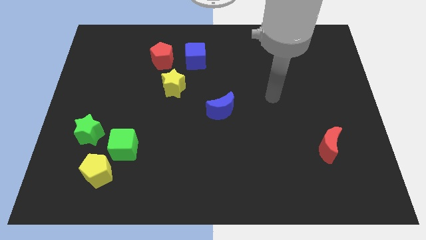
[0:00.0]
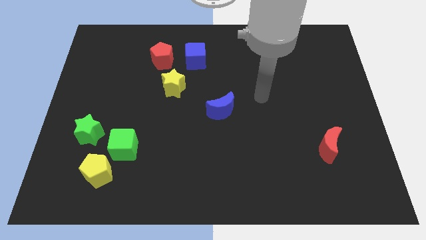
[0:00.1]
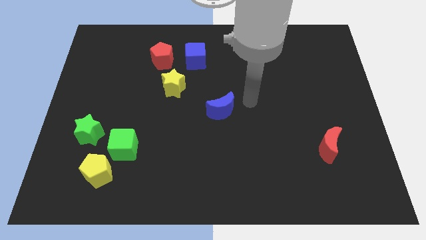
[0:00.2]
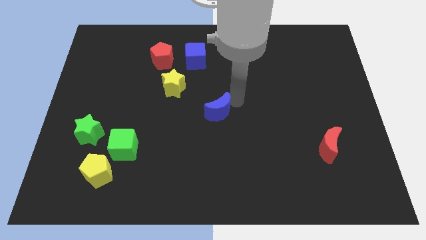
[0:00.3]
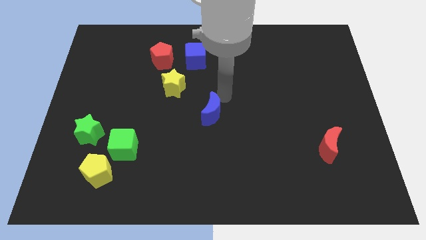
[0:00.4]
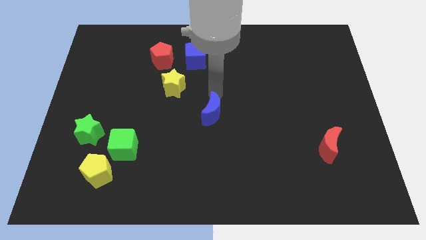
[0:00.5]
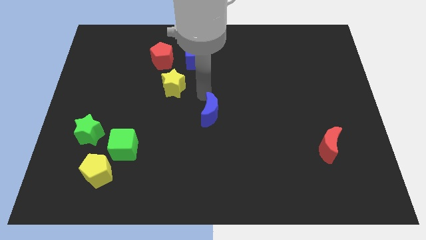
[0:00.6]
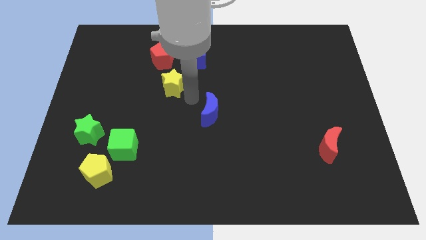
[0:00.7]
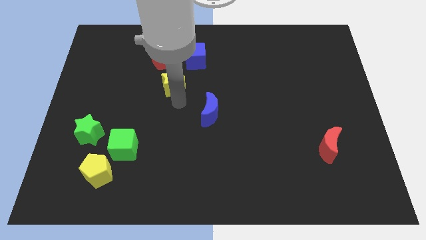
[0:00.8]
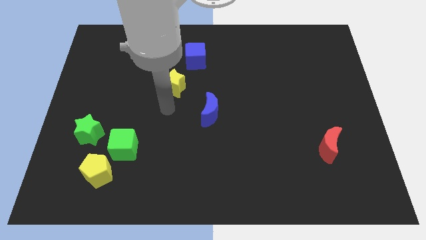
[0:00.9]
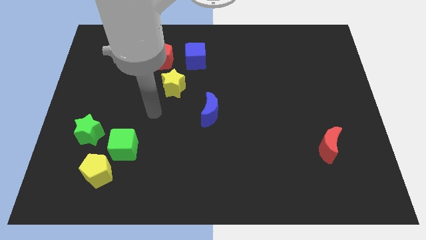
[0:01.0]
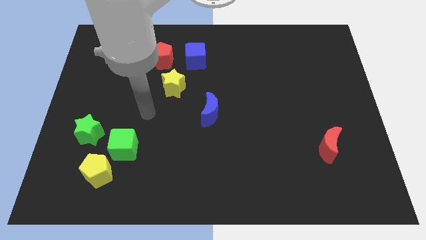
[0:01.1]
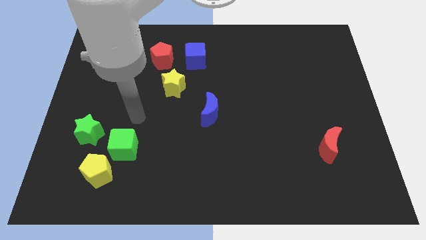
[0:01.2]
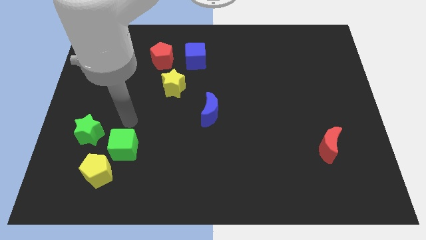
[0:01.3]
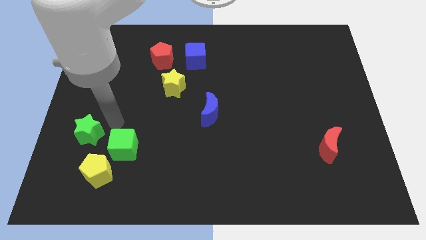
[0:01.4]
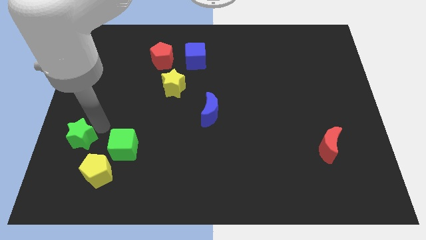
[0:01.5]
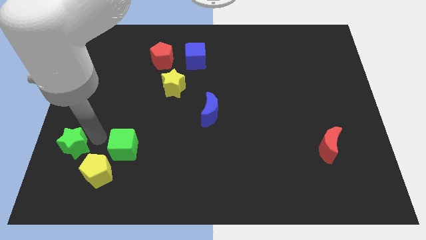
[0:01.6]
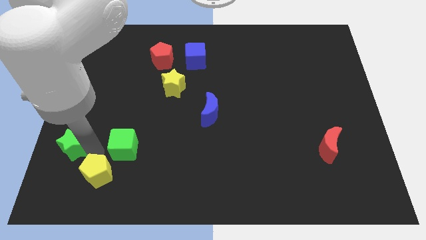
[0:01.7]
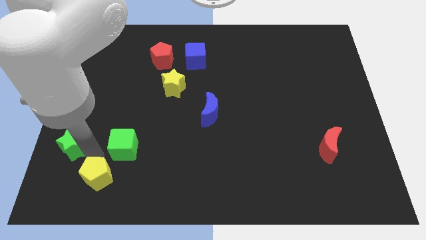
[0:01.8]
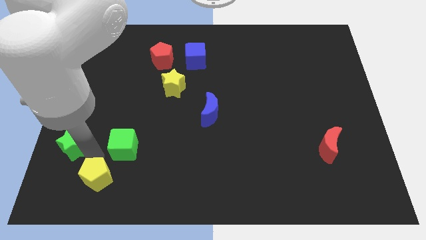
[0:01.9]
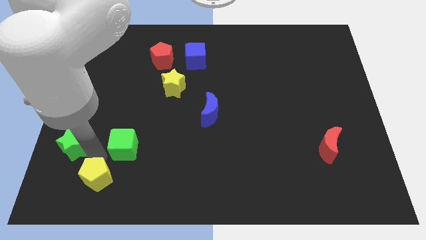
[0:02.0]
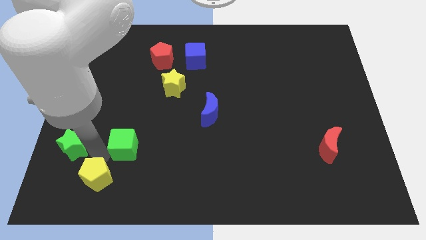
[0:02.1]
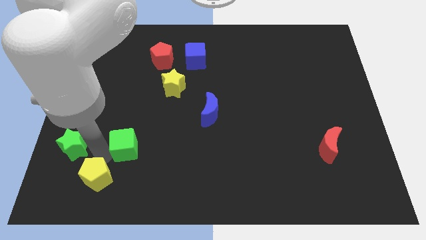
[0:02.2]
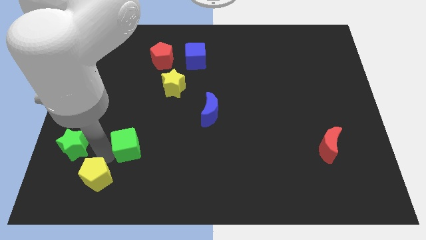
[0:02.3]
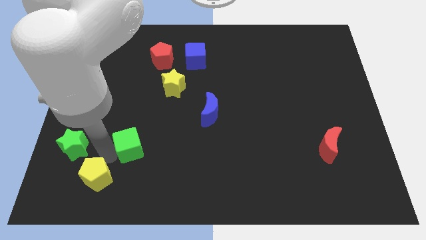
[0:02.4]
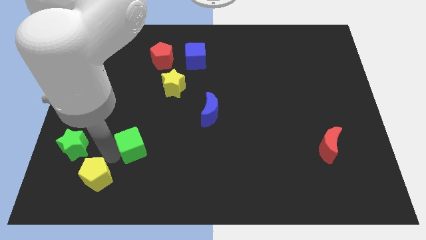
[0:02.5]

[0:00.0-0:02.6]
move the green cube away from the yellow pentagon and green star

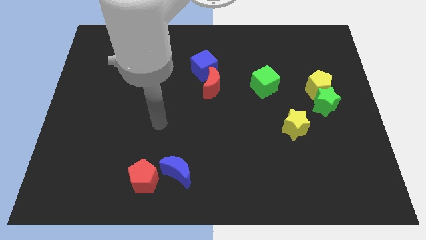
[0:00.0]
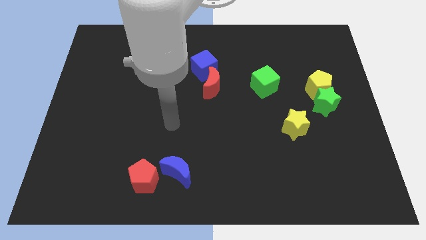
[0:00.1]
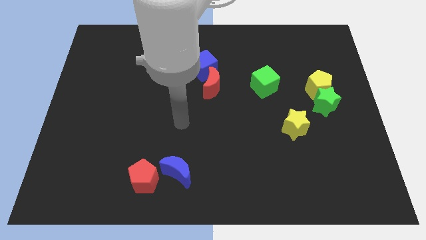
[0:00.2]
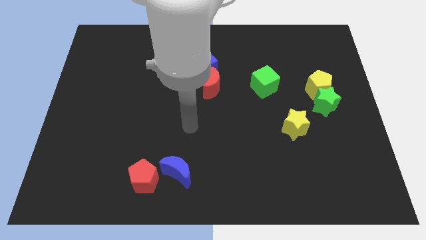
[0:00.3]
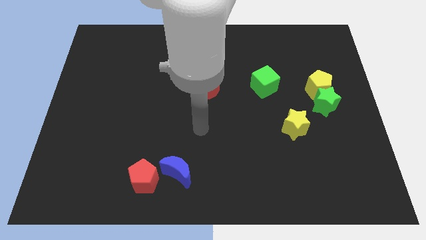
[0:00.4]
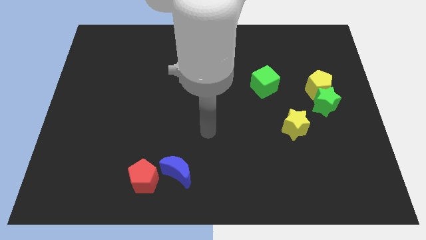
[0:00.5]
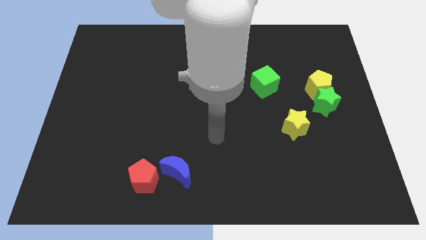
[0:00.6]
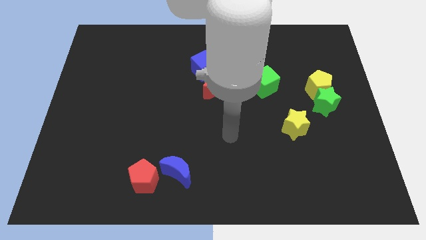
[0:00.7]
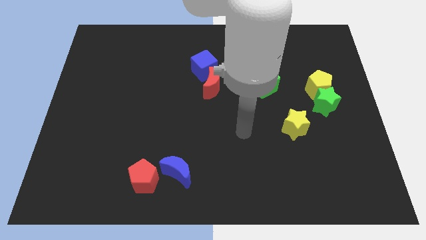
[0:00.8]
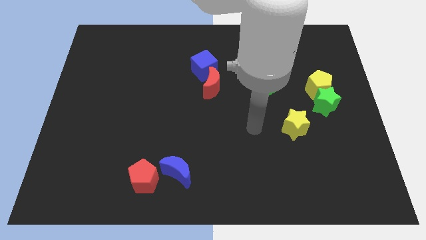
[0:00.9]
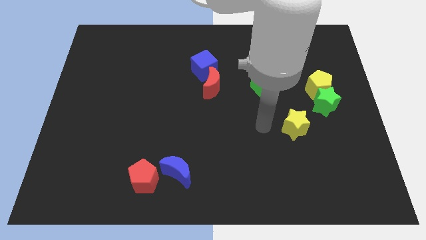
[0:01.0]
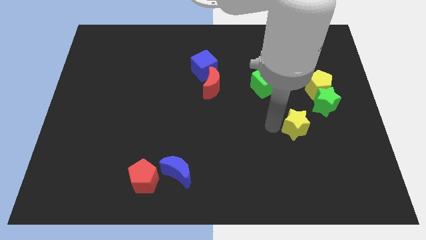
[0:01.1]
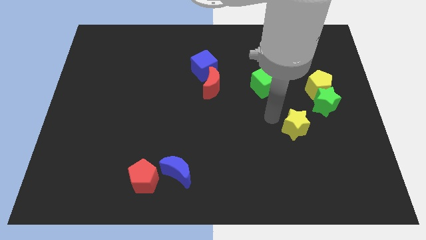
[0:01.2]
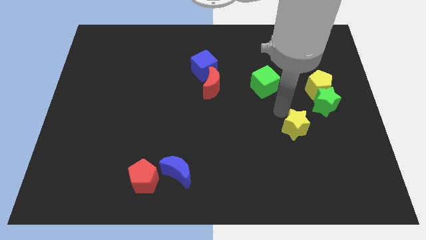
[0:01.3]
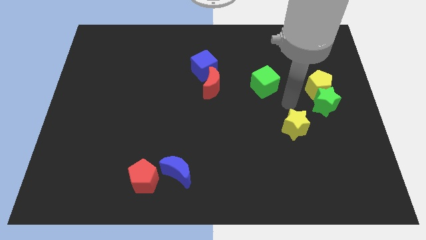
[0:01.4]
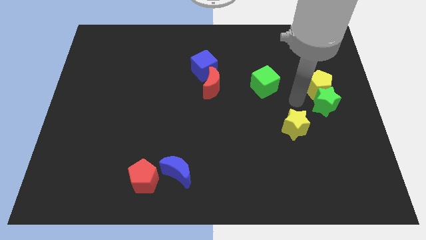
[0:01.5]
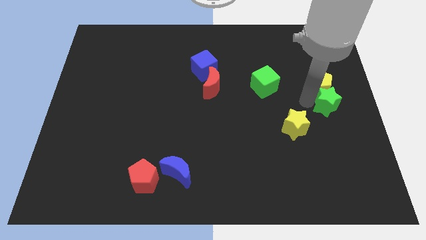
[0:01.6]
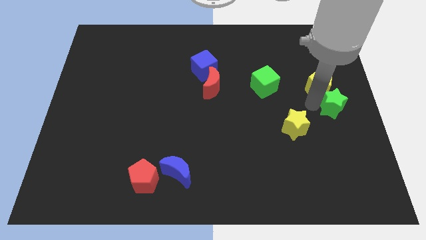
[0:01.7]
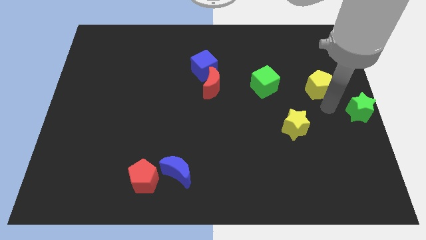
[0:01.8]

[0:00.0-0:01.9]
pull the yellow pentagon apart from the green star

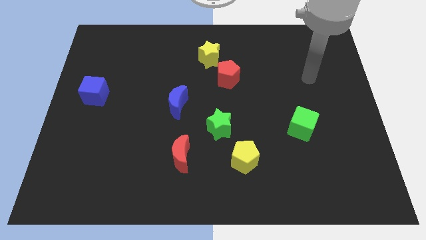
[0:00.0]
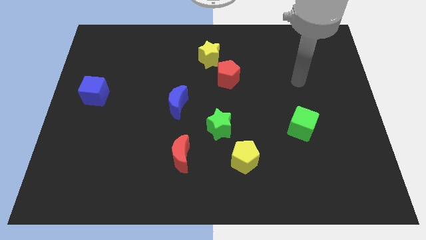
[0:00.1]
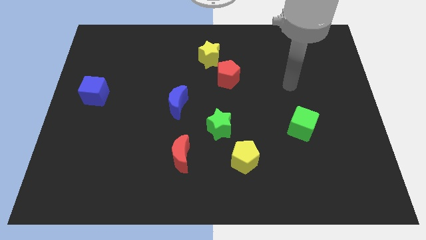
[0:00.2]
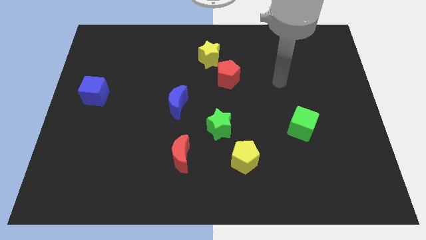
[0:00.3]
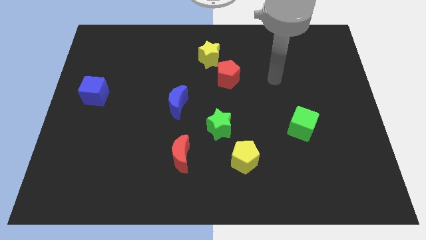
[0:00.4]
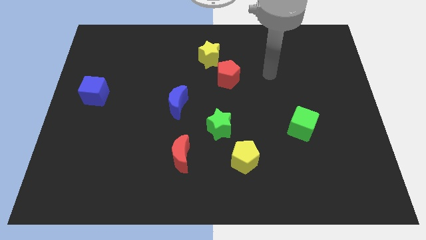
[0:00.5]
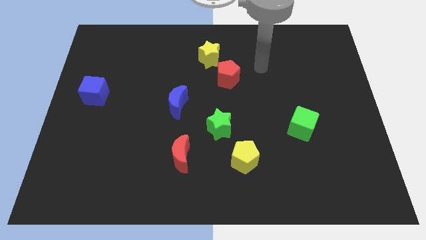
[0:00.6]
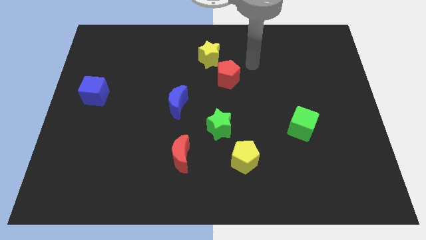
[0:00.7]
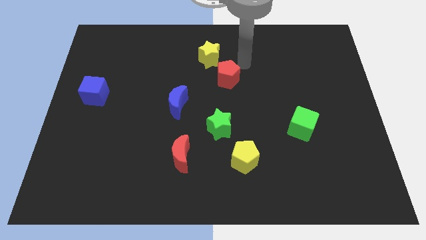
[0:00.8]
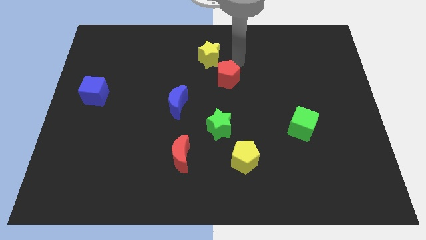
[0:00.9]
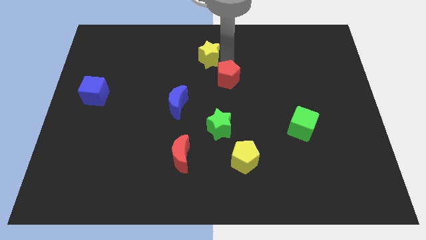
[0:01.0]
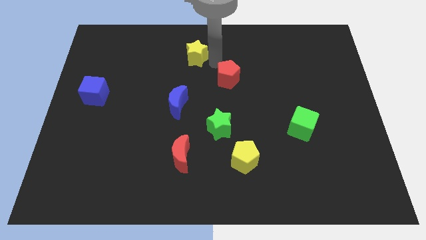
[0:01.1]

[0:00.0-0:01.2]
pull the red pentagon apart from the yellow star

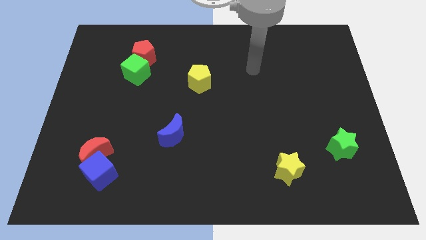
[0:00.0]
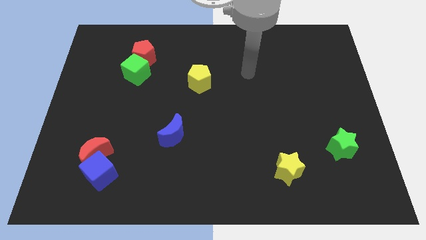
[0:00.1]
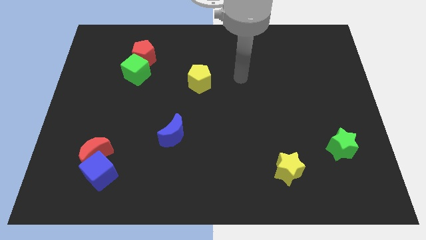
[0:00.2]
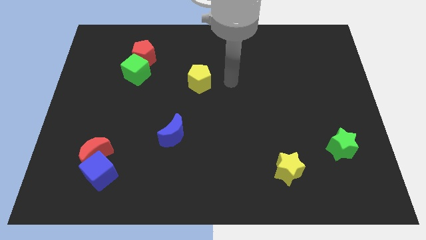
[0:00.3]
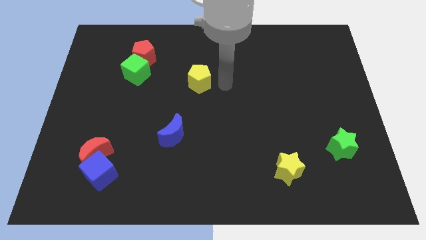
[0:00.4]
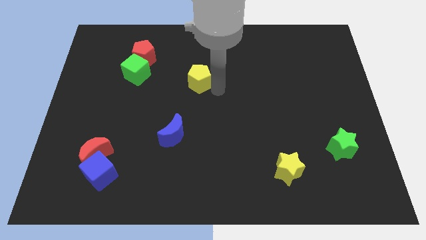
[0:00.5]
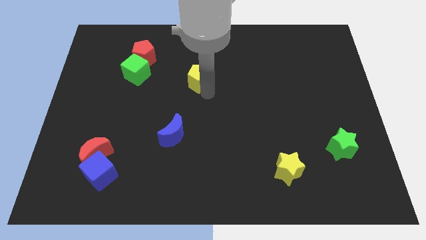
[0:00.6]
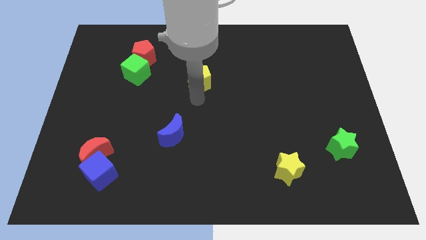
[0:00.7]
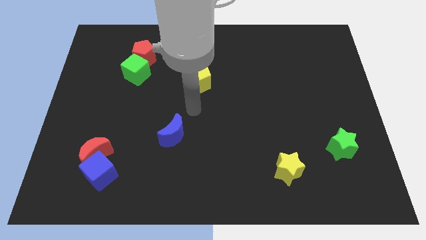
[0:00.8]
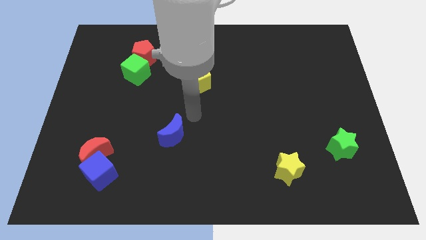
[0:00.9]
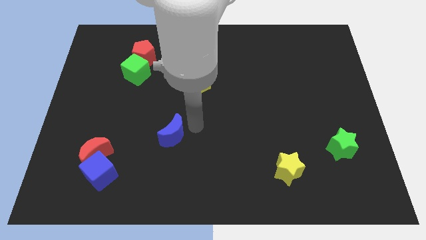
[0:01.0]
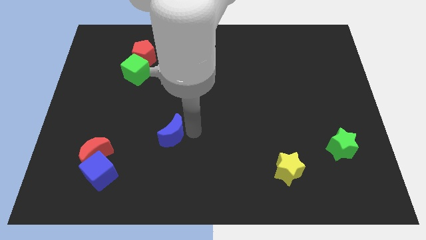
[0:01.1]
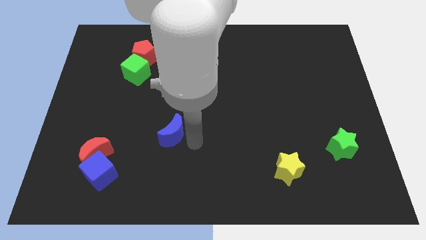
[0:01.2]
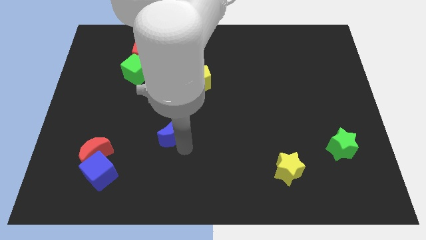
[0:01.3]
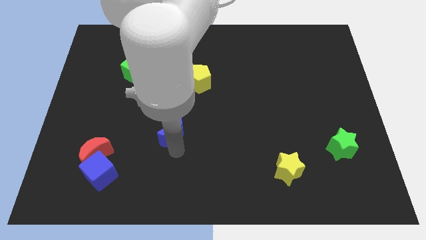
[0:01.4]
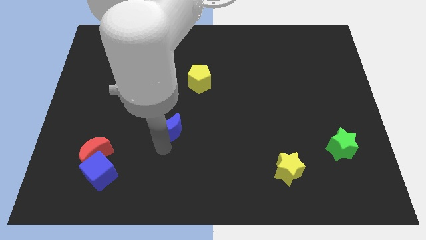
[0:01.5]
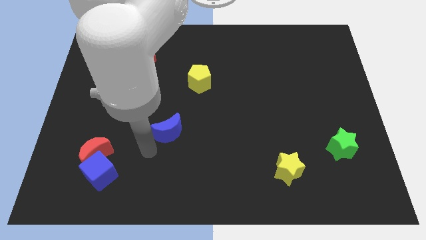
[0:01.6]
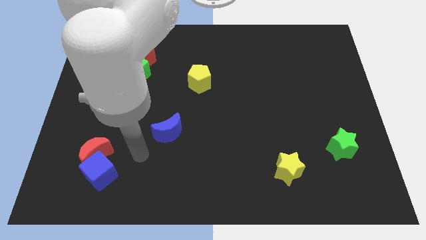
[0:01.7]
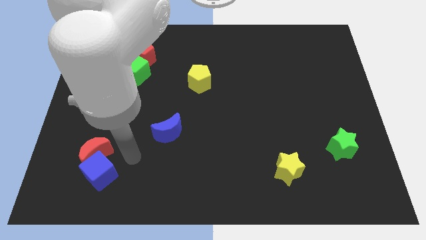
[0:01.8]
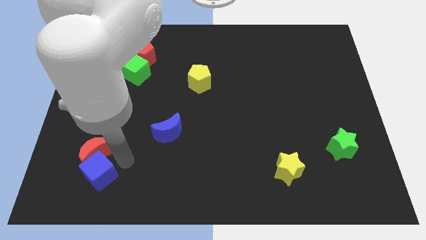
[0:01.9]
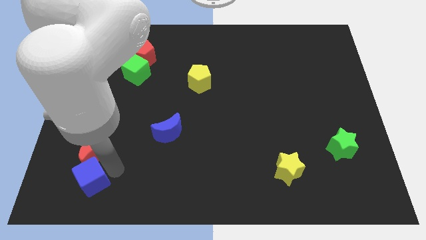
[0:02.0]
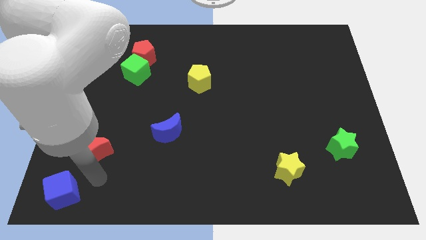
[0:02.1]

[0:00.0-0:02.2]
separate the red moon from the blue cube

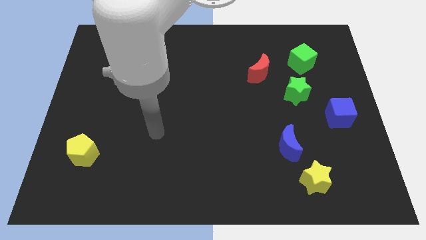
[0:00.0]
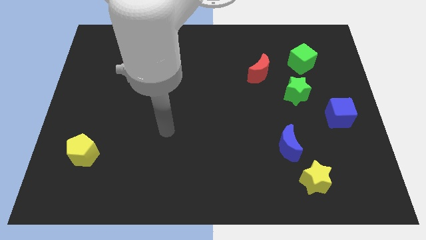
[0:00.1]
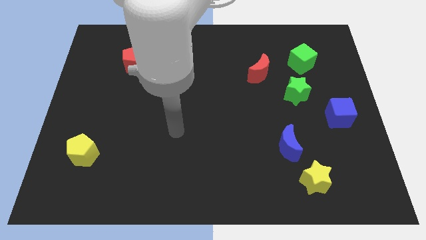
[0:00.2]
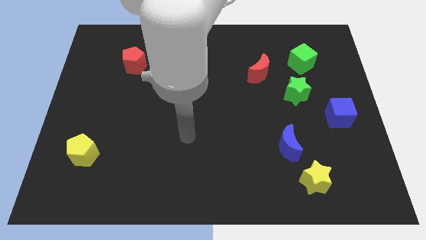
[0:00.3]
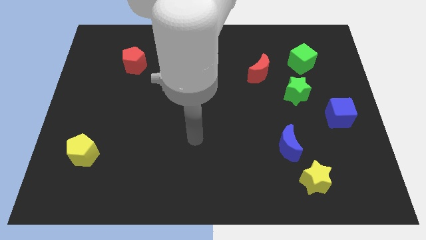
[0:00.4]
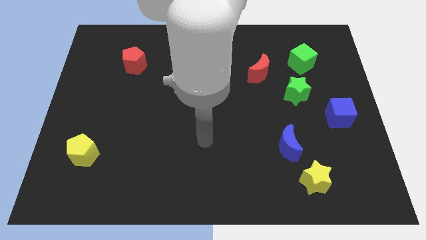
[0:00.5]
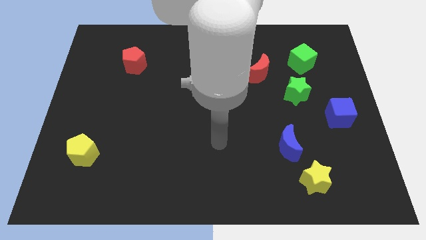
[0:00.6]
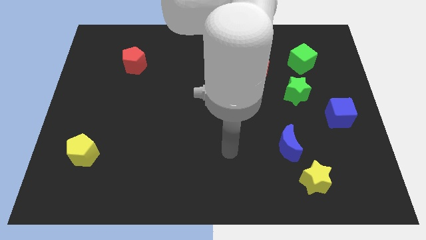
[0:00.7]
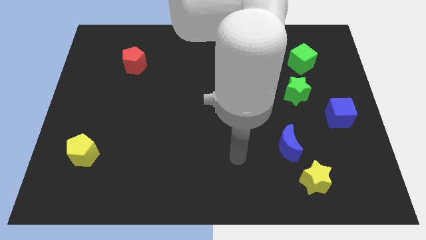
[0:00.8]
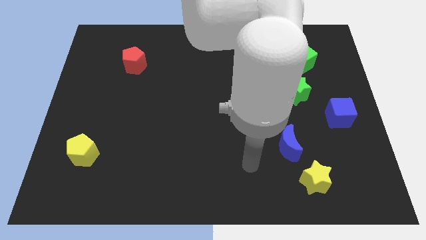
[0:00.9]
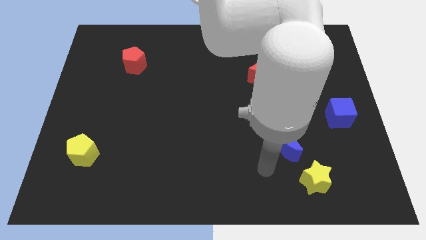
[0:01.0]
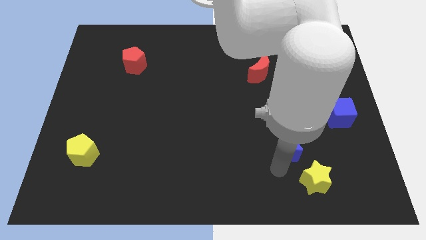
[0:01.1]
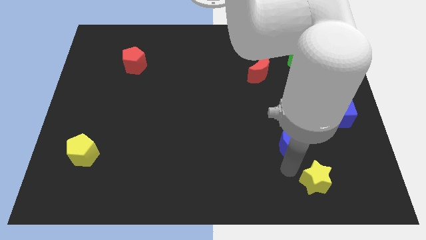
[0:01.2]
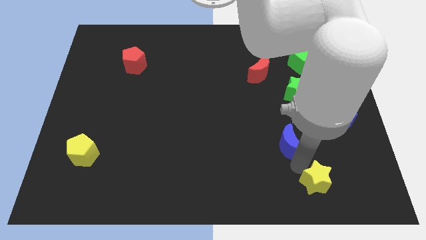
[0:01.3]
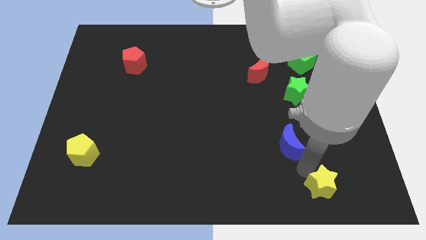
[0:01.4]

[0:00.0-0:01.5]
pull the blue moon apart from the yellow star
